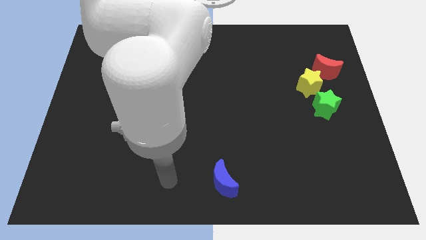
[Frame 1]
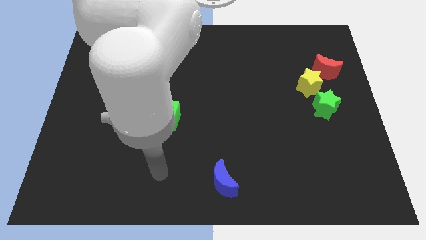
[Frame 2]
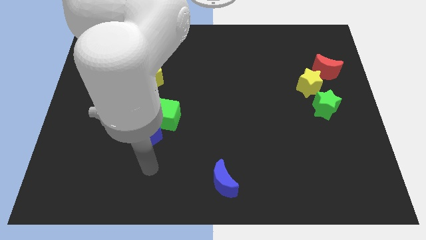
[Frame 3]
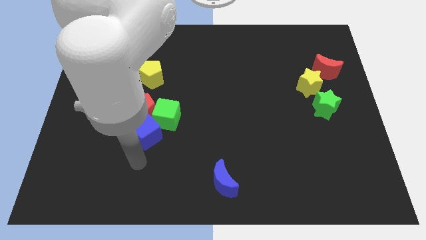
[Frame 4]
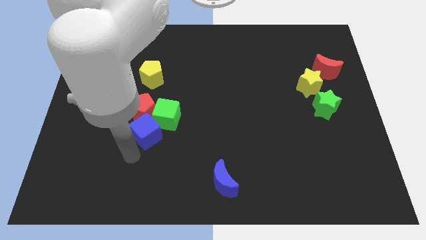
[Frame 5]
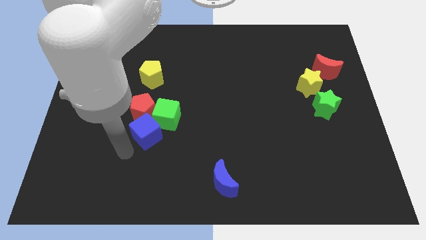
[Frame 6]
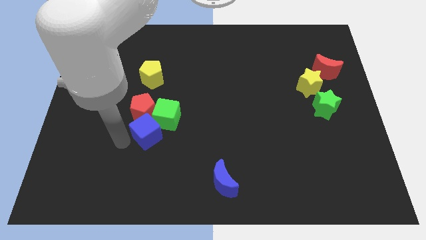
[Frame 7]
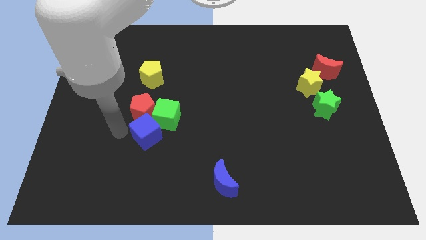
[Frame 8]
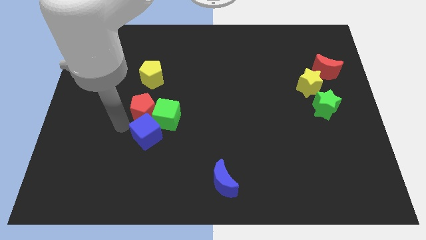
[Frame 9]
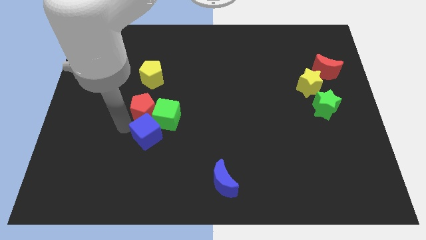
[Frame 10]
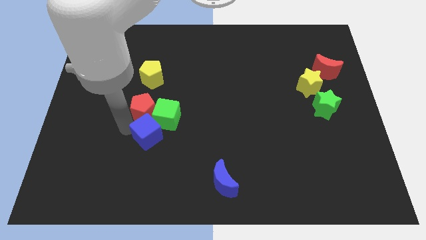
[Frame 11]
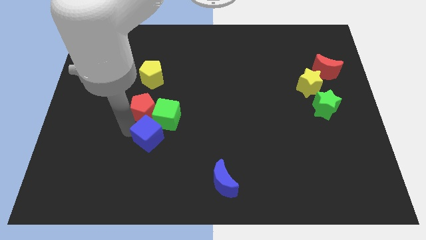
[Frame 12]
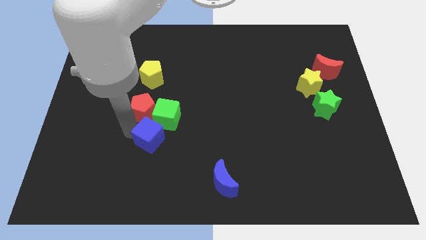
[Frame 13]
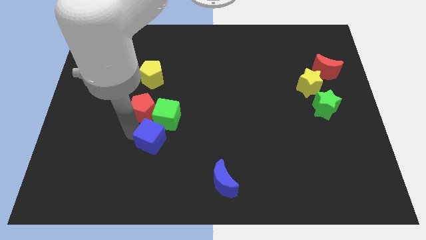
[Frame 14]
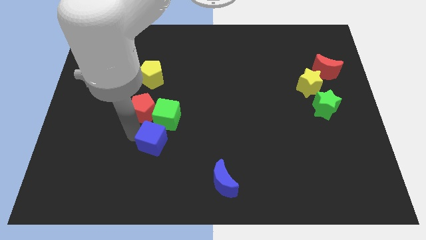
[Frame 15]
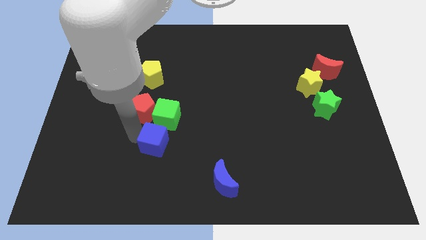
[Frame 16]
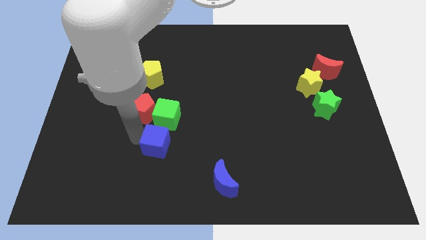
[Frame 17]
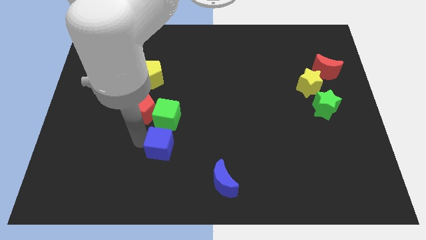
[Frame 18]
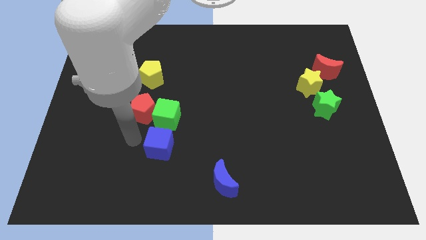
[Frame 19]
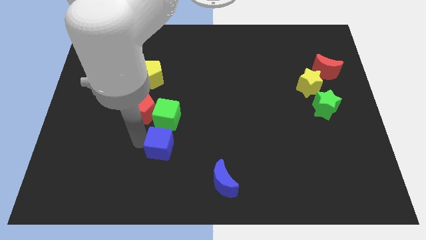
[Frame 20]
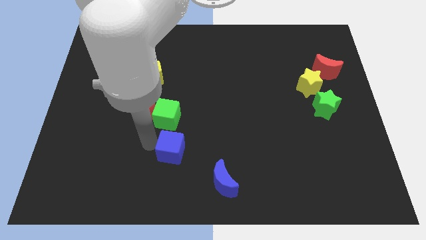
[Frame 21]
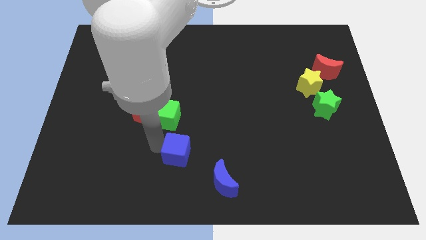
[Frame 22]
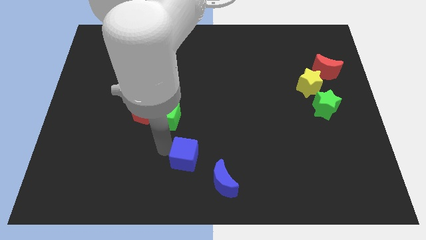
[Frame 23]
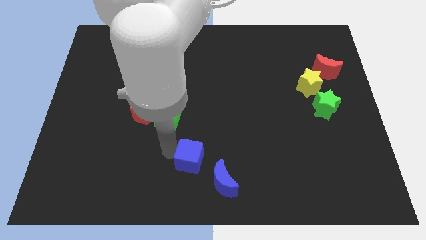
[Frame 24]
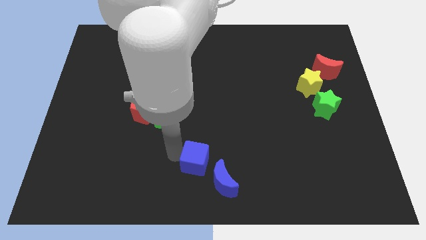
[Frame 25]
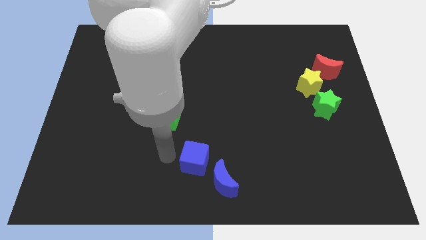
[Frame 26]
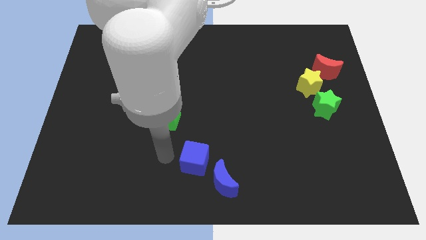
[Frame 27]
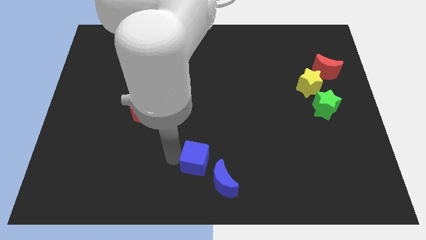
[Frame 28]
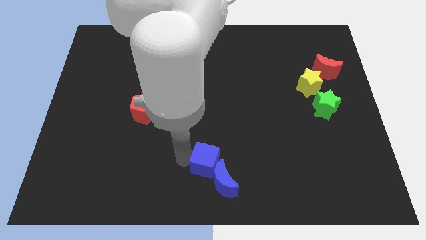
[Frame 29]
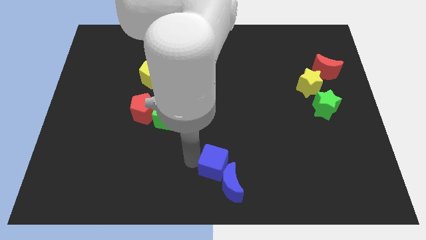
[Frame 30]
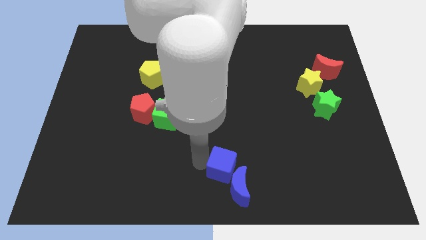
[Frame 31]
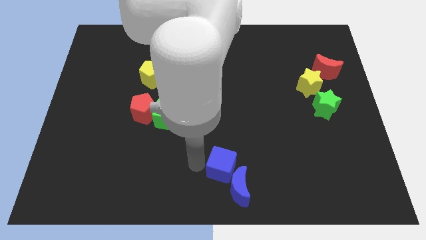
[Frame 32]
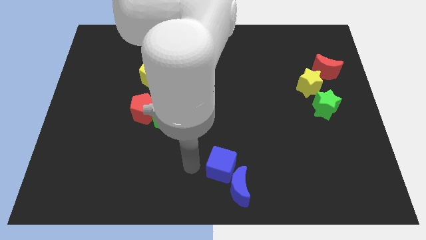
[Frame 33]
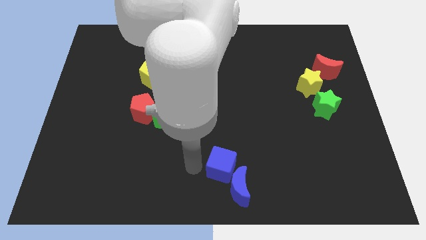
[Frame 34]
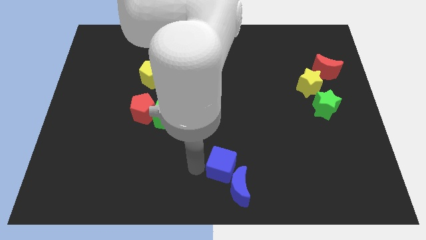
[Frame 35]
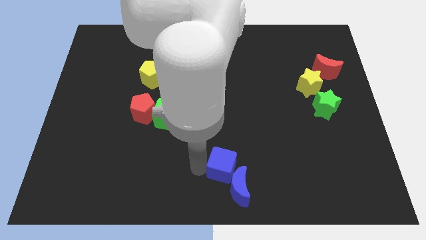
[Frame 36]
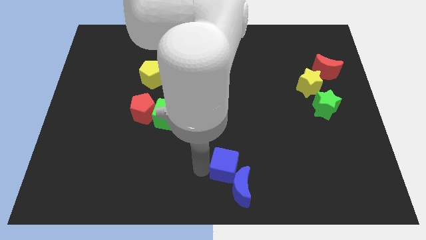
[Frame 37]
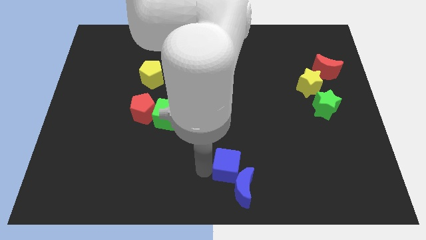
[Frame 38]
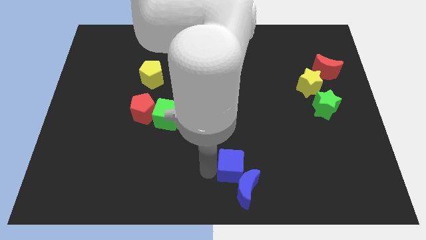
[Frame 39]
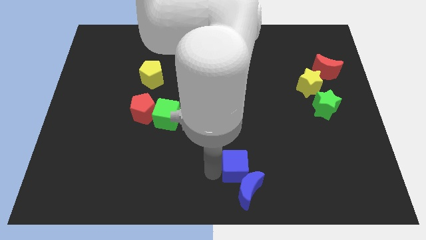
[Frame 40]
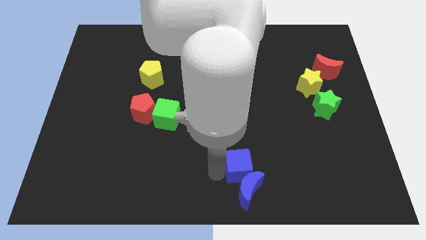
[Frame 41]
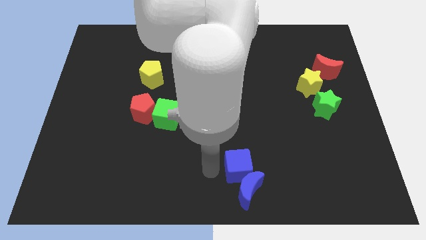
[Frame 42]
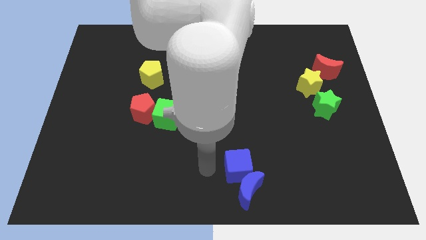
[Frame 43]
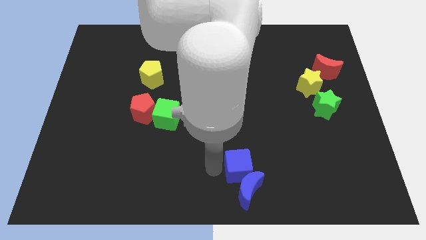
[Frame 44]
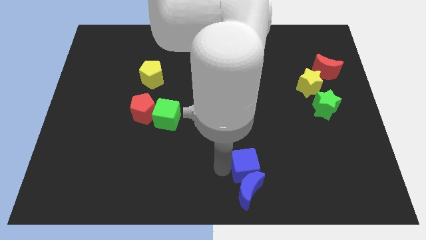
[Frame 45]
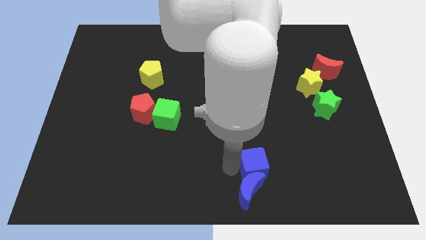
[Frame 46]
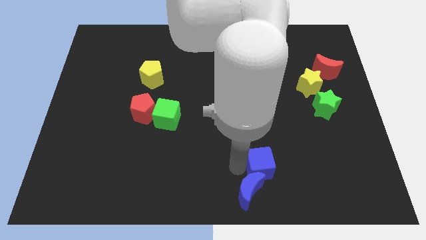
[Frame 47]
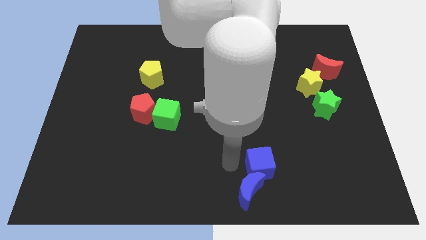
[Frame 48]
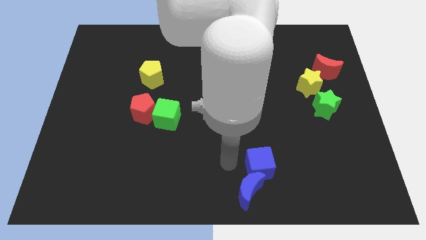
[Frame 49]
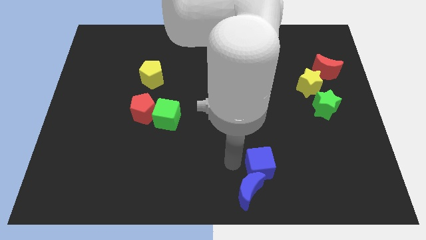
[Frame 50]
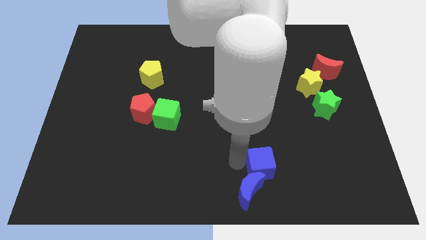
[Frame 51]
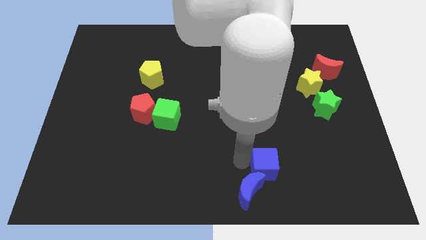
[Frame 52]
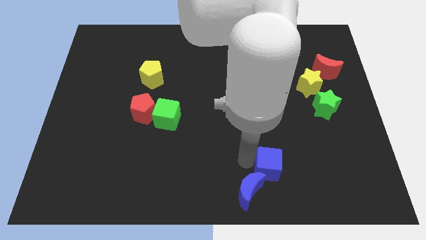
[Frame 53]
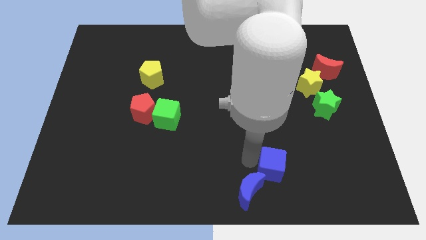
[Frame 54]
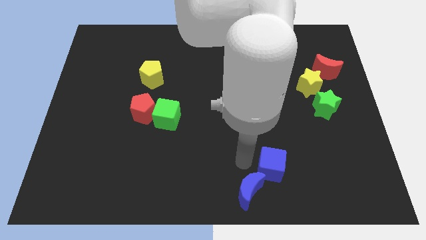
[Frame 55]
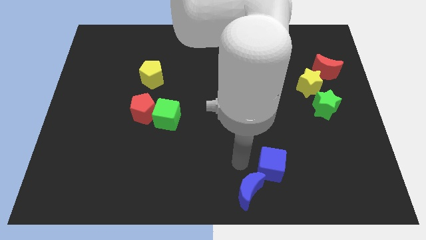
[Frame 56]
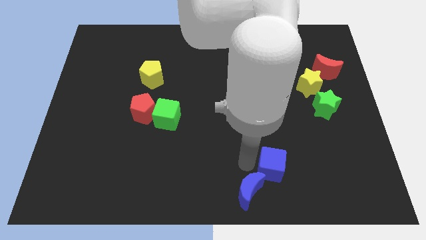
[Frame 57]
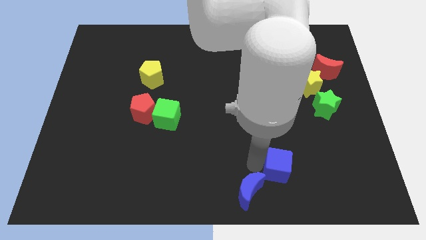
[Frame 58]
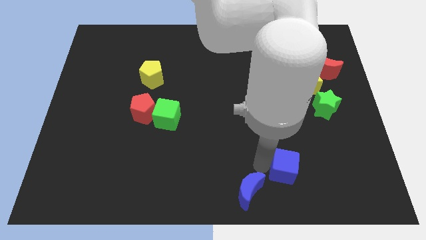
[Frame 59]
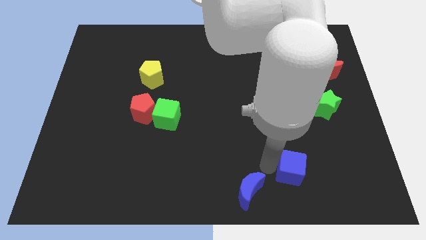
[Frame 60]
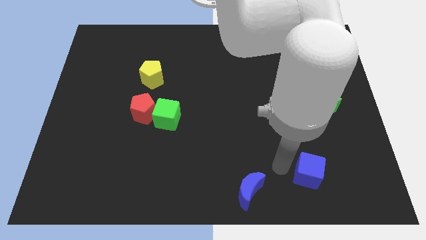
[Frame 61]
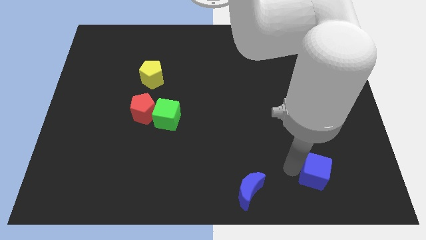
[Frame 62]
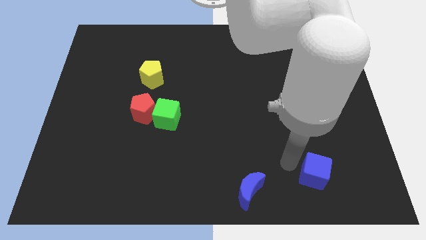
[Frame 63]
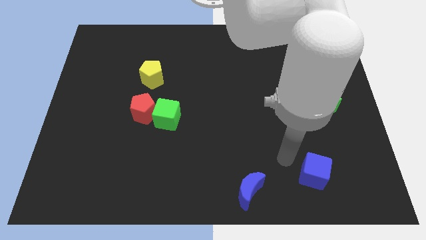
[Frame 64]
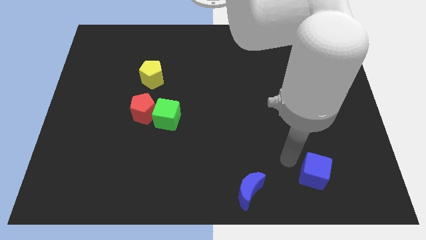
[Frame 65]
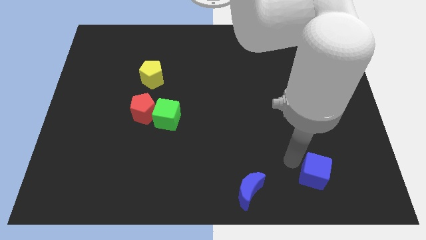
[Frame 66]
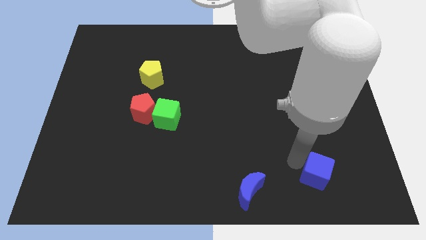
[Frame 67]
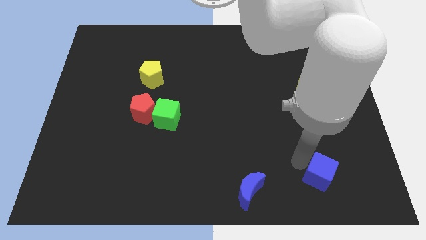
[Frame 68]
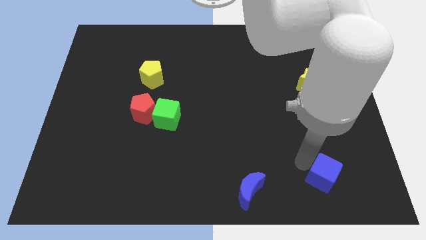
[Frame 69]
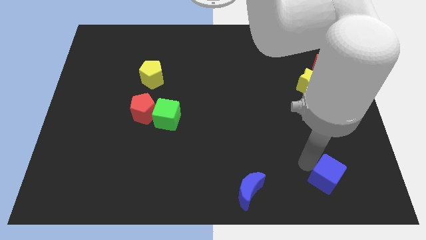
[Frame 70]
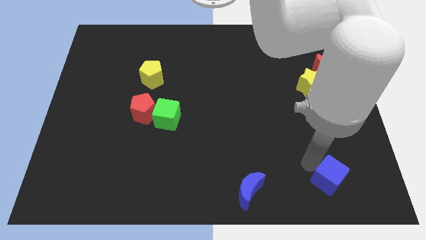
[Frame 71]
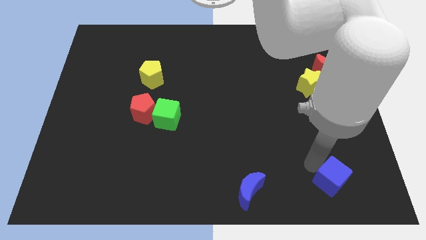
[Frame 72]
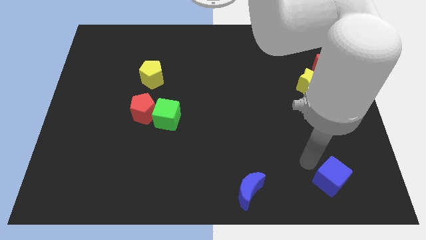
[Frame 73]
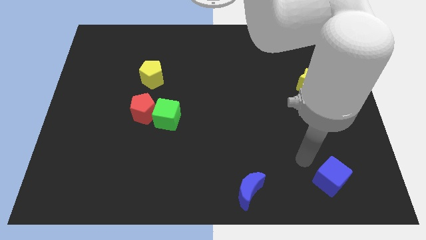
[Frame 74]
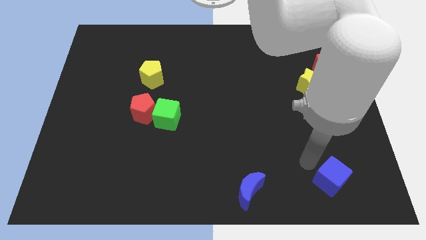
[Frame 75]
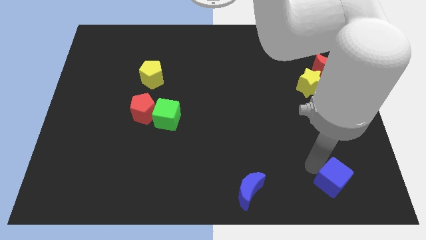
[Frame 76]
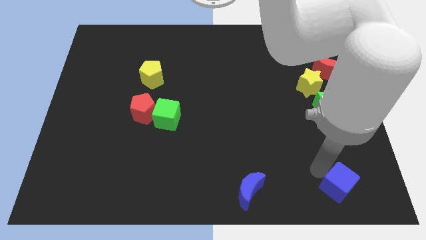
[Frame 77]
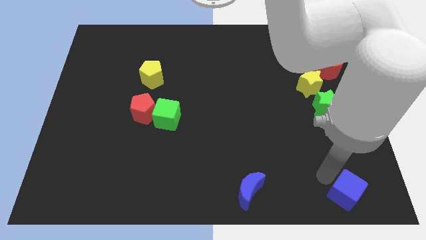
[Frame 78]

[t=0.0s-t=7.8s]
move the blue cube to the lower right corner
